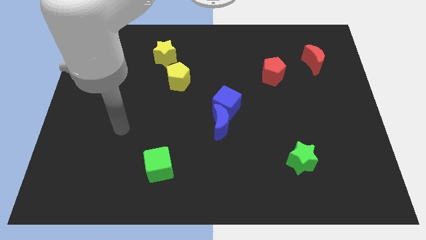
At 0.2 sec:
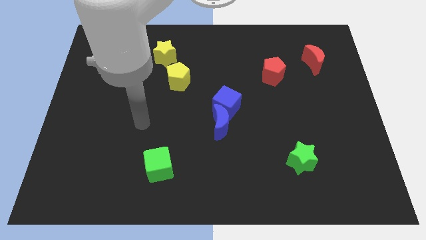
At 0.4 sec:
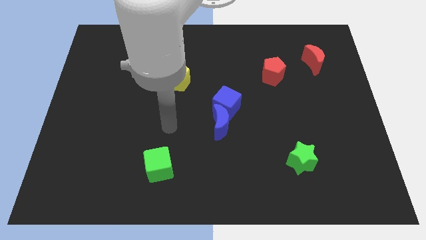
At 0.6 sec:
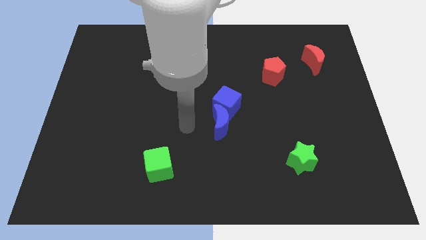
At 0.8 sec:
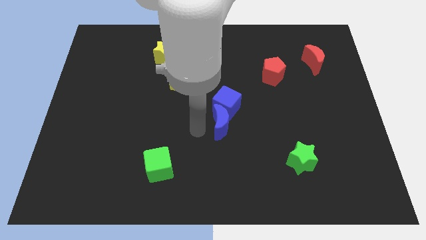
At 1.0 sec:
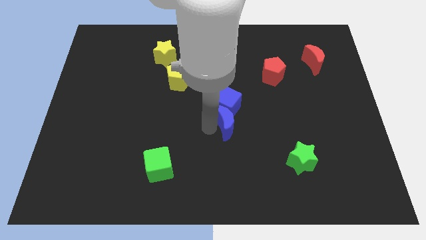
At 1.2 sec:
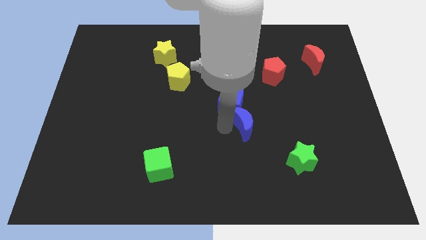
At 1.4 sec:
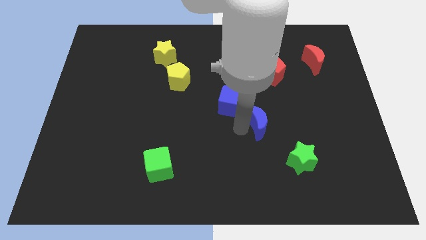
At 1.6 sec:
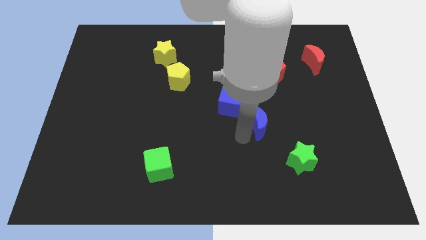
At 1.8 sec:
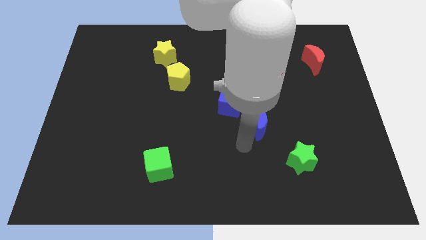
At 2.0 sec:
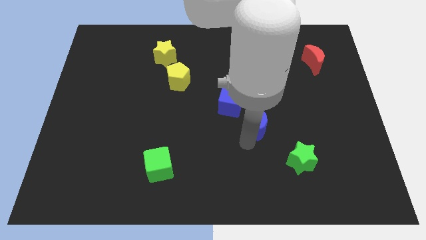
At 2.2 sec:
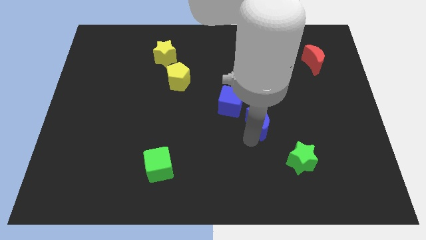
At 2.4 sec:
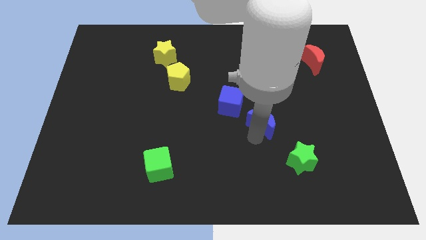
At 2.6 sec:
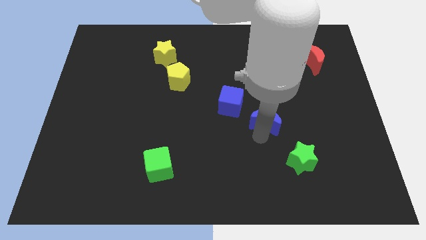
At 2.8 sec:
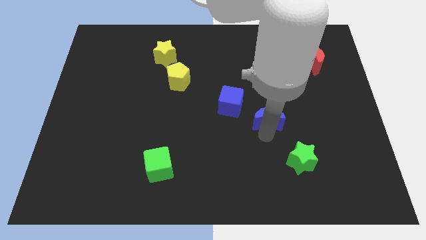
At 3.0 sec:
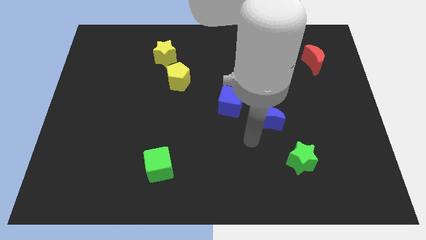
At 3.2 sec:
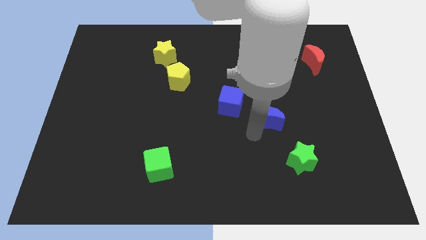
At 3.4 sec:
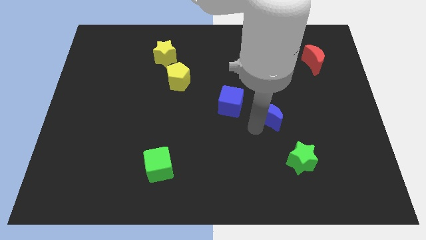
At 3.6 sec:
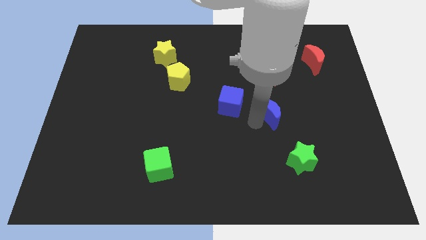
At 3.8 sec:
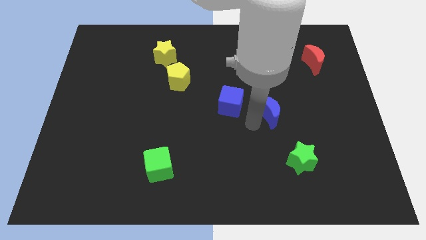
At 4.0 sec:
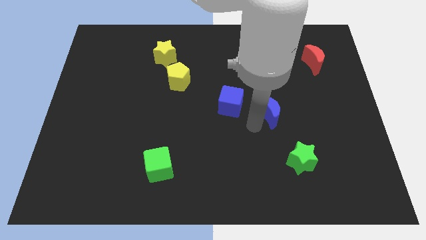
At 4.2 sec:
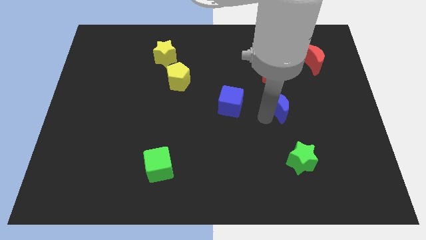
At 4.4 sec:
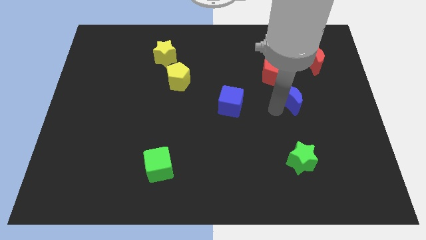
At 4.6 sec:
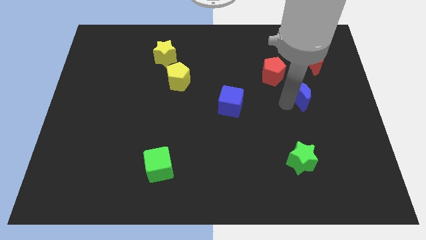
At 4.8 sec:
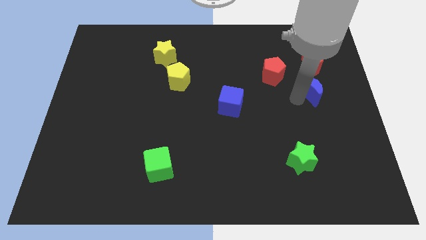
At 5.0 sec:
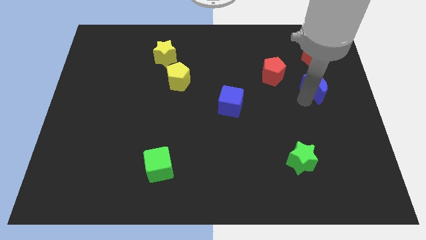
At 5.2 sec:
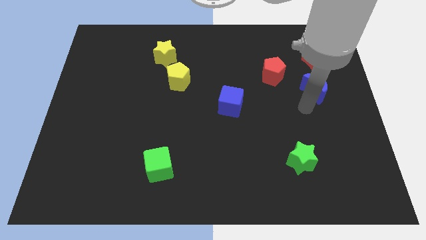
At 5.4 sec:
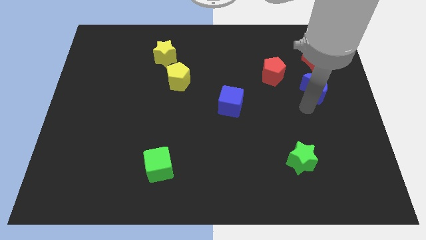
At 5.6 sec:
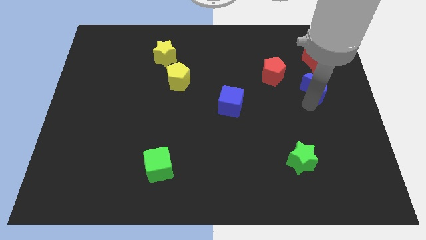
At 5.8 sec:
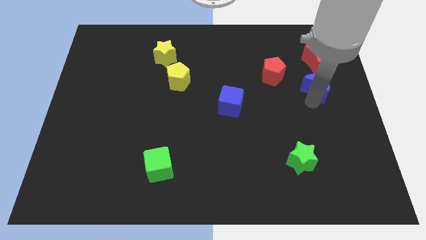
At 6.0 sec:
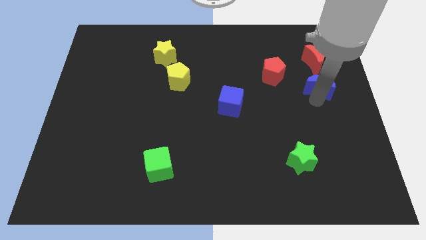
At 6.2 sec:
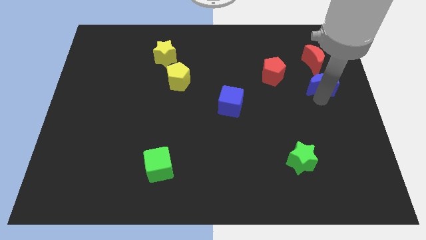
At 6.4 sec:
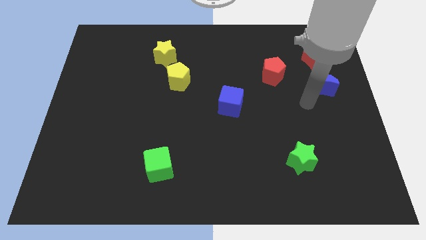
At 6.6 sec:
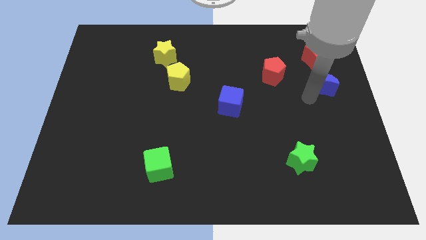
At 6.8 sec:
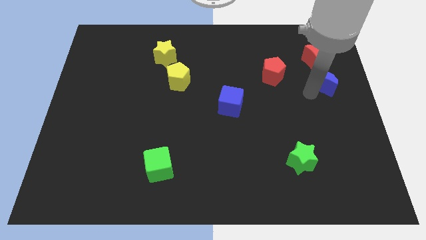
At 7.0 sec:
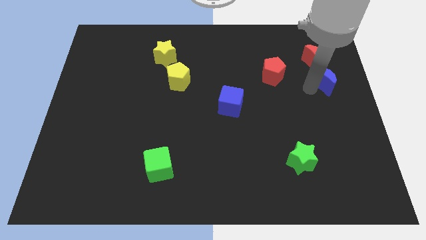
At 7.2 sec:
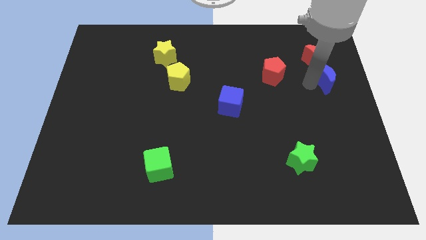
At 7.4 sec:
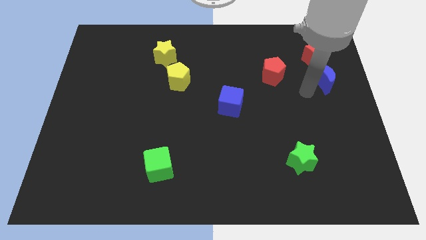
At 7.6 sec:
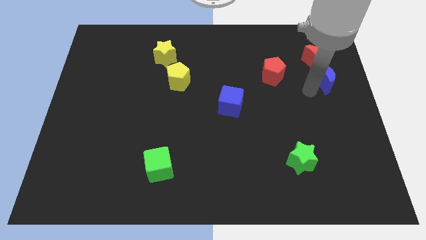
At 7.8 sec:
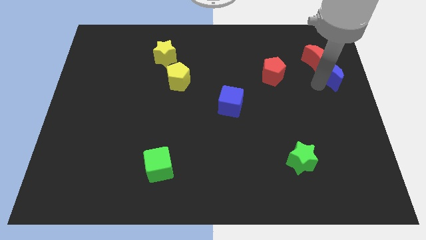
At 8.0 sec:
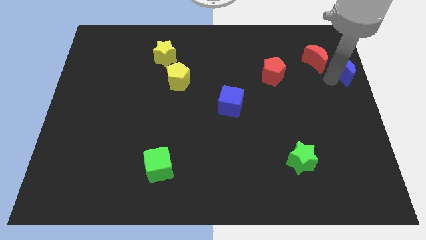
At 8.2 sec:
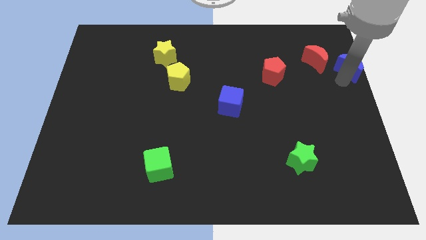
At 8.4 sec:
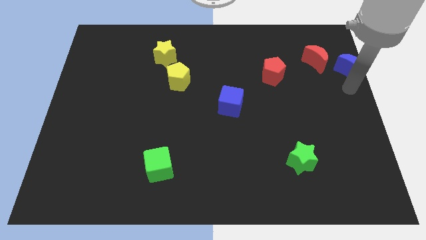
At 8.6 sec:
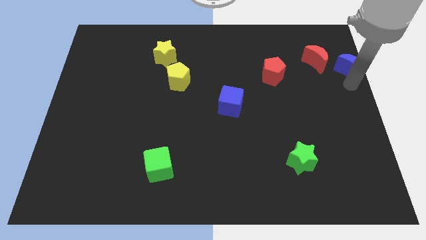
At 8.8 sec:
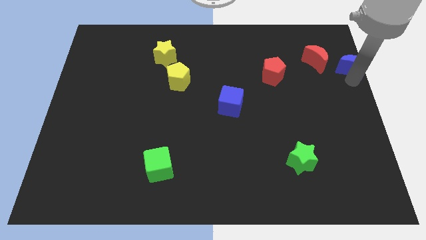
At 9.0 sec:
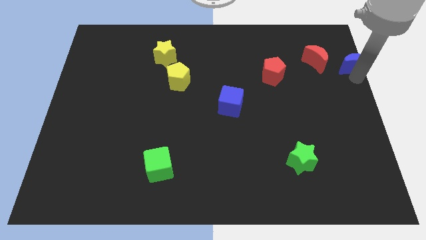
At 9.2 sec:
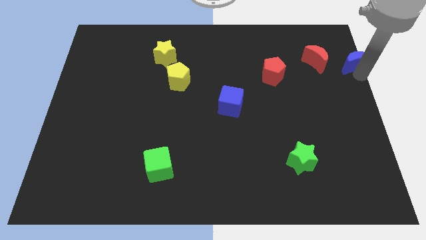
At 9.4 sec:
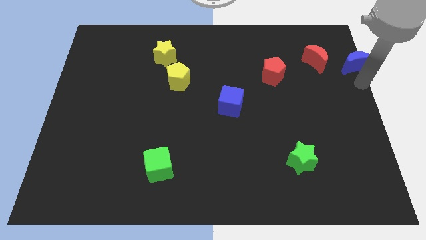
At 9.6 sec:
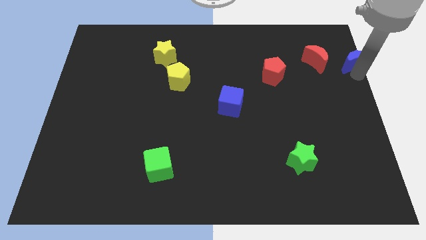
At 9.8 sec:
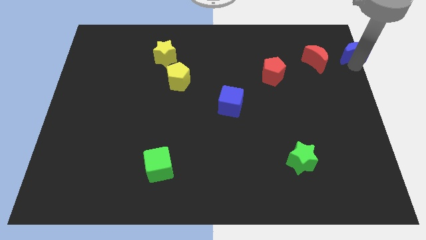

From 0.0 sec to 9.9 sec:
put the blue moon to the top right of the board
